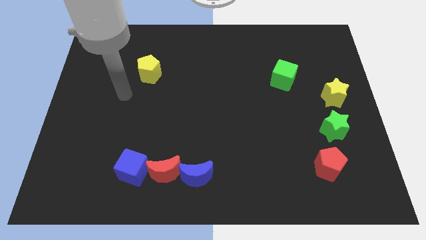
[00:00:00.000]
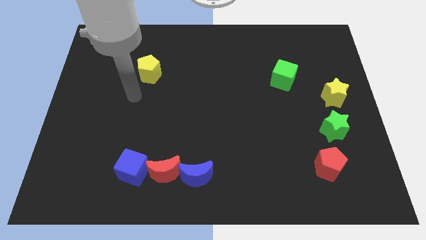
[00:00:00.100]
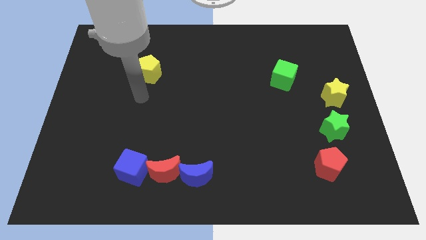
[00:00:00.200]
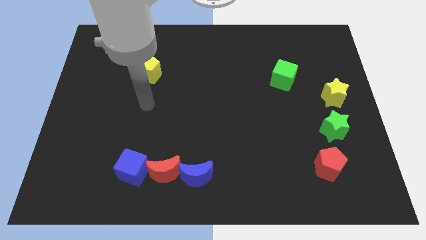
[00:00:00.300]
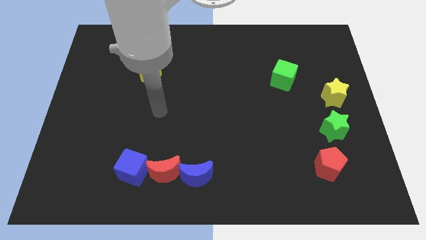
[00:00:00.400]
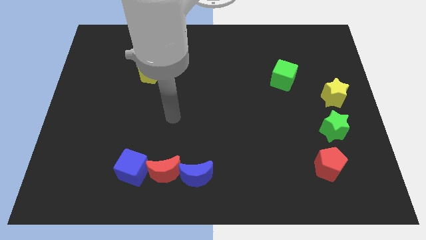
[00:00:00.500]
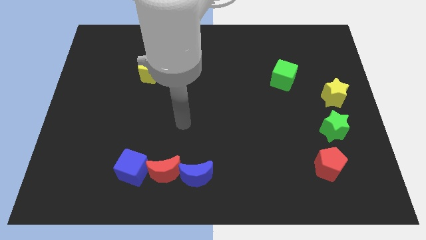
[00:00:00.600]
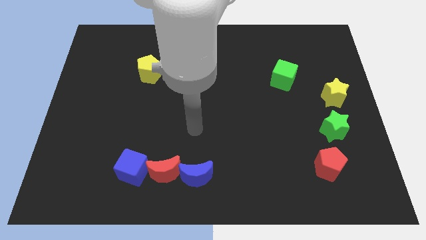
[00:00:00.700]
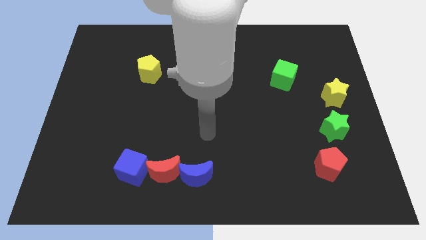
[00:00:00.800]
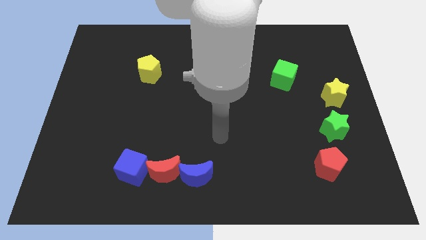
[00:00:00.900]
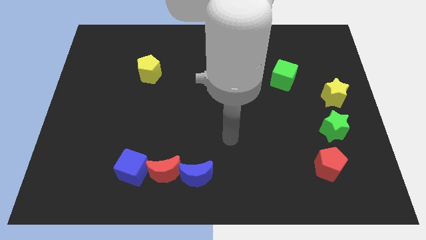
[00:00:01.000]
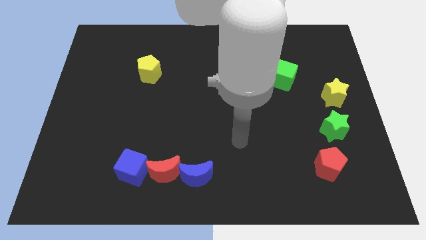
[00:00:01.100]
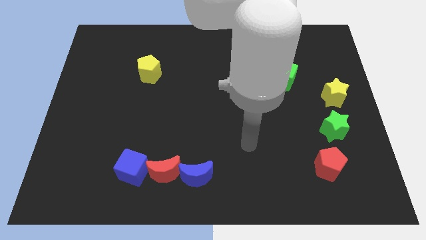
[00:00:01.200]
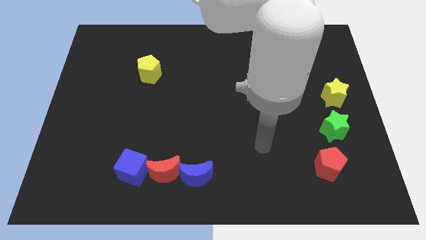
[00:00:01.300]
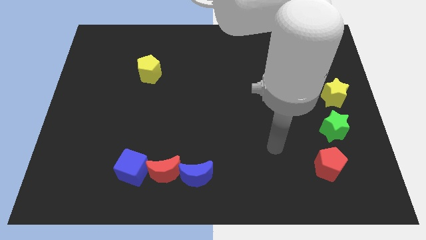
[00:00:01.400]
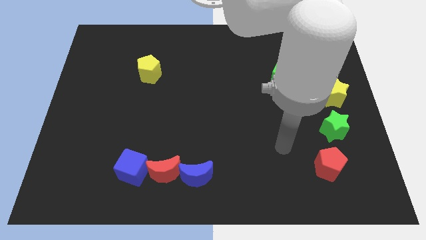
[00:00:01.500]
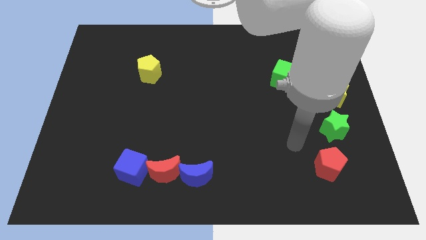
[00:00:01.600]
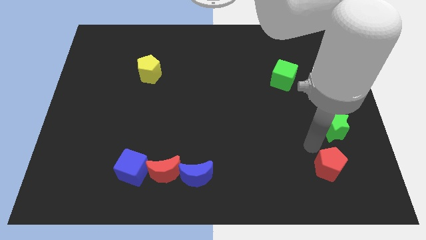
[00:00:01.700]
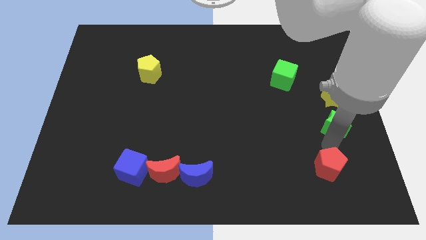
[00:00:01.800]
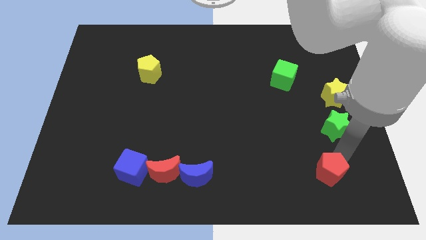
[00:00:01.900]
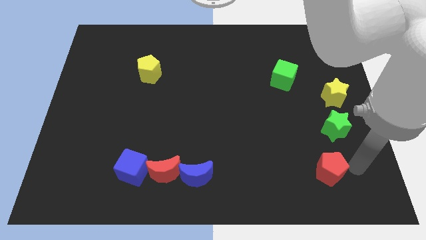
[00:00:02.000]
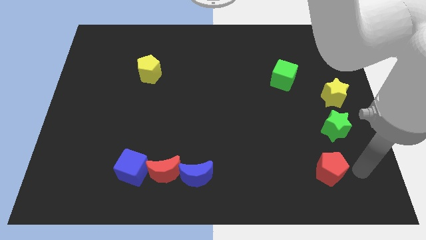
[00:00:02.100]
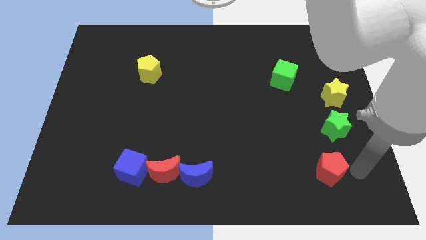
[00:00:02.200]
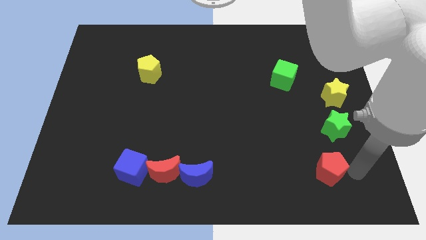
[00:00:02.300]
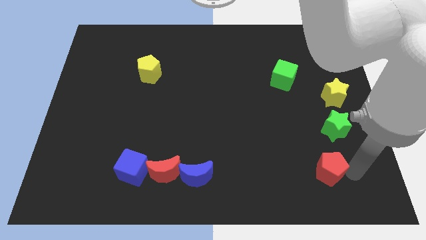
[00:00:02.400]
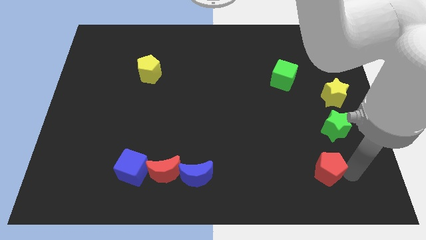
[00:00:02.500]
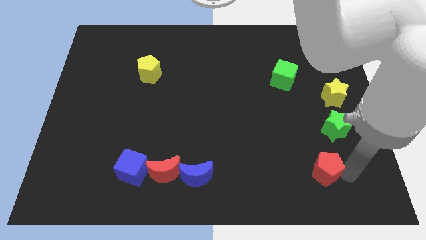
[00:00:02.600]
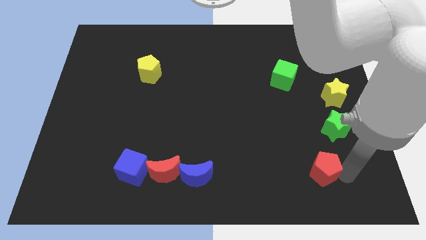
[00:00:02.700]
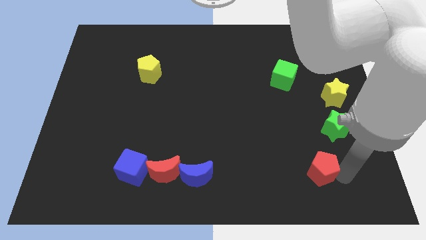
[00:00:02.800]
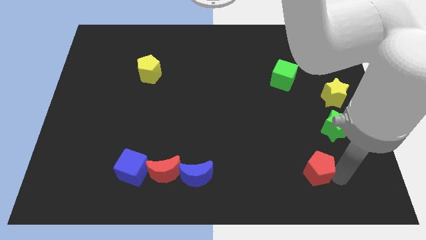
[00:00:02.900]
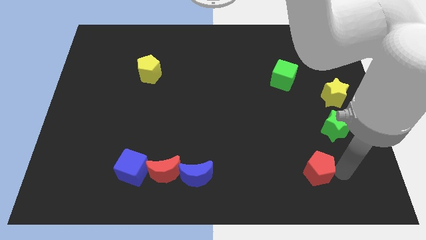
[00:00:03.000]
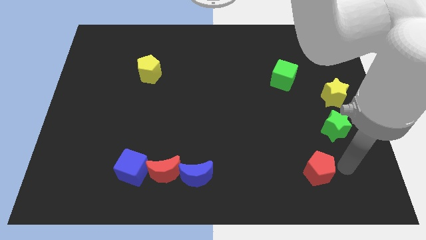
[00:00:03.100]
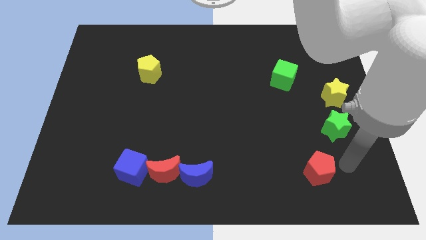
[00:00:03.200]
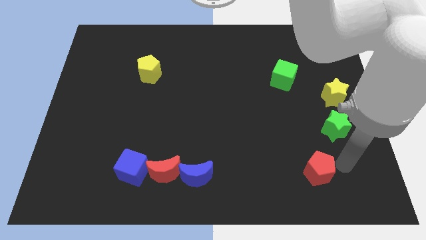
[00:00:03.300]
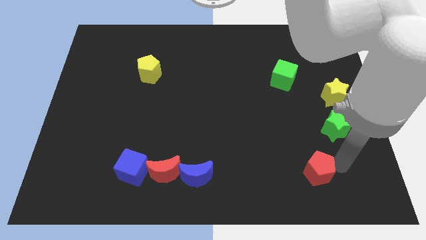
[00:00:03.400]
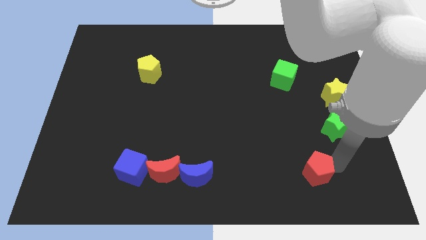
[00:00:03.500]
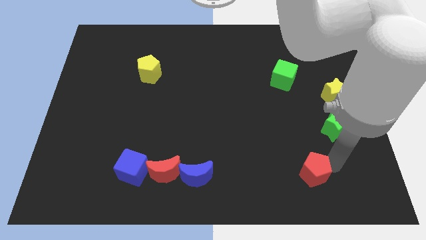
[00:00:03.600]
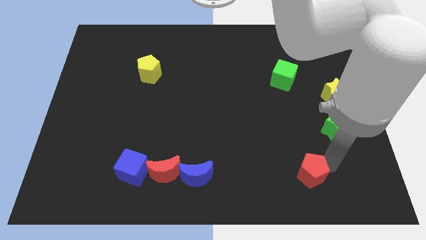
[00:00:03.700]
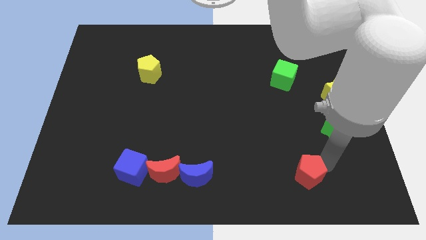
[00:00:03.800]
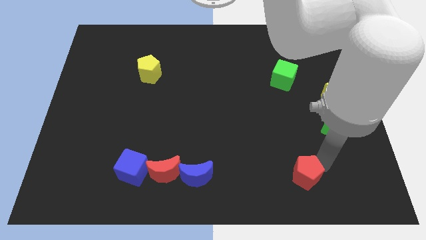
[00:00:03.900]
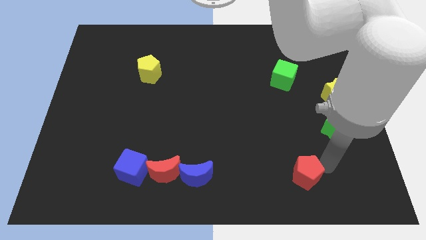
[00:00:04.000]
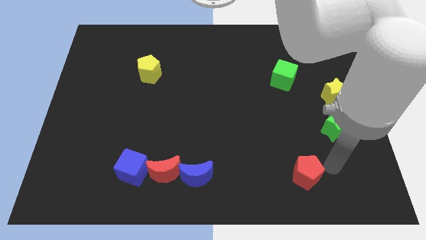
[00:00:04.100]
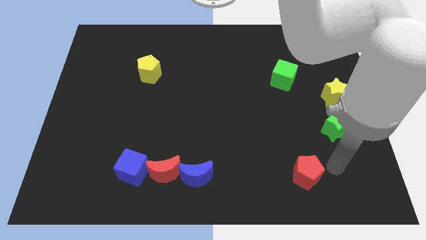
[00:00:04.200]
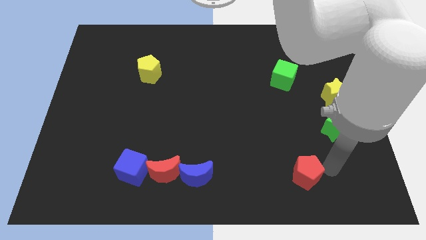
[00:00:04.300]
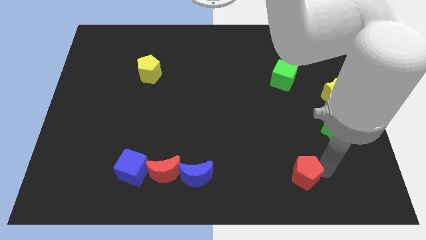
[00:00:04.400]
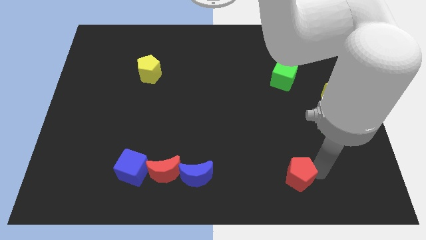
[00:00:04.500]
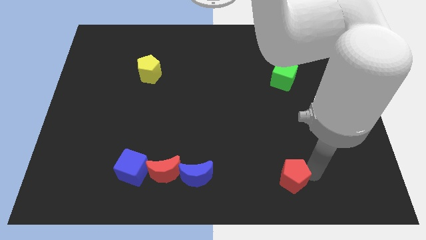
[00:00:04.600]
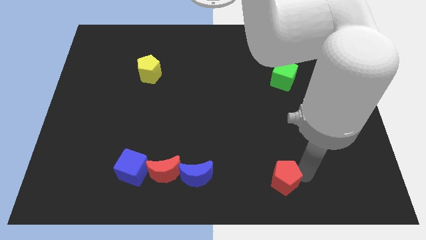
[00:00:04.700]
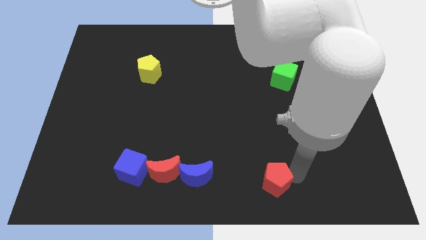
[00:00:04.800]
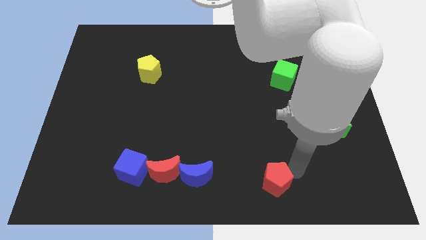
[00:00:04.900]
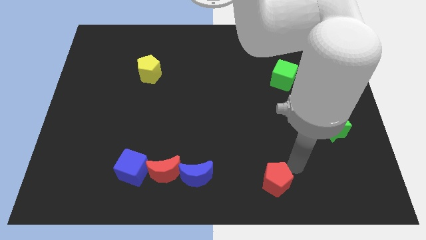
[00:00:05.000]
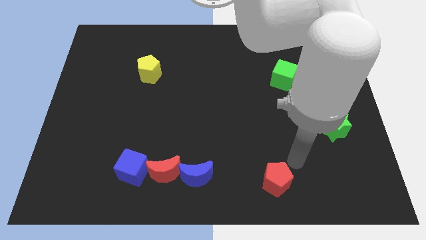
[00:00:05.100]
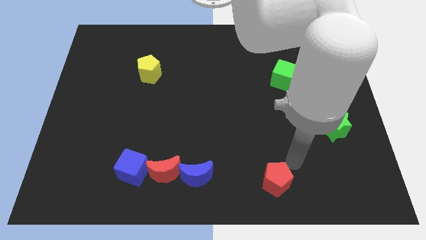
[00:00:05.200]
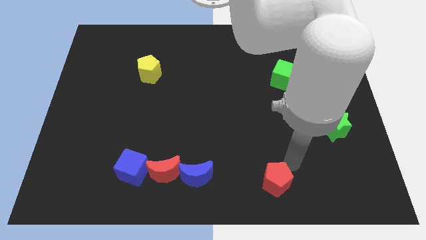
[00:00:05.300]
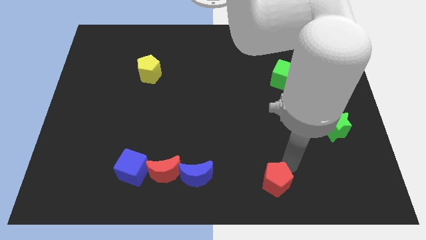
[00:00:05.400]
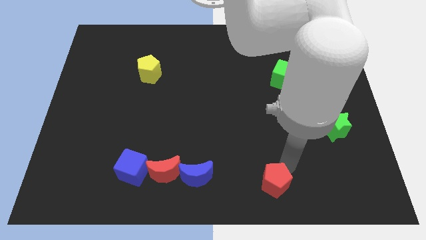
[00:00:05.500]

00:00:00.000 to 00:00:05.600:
put the red pentagon to the bottom
